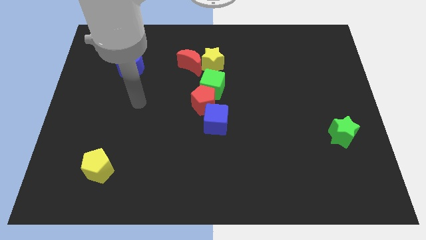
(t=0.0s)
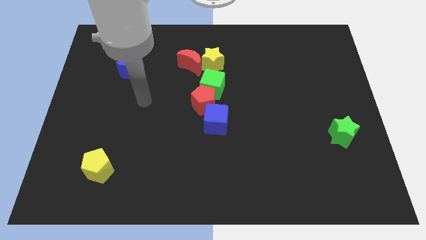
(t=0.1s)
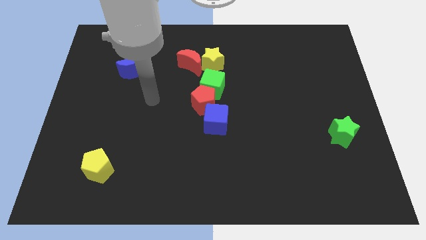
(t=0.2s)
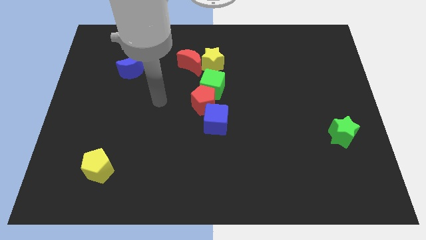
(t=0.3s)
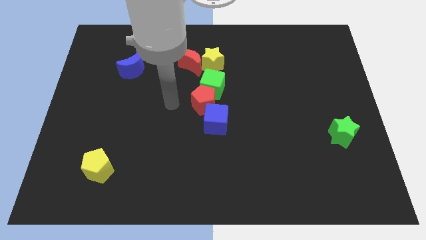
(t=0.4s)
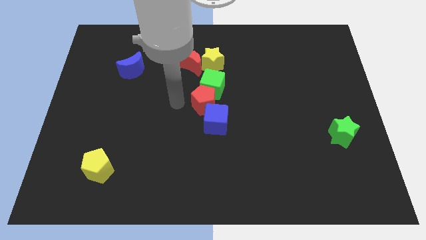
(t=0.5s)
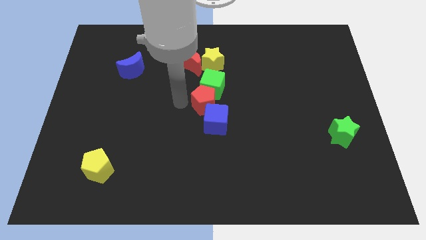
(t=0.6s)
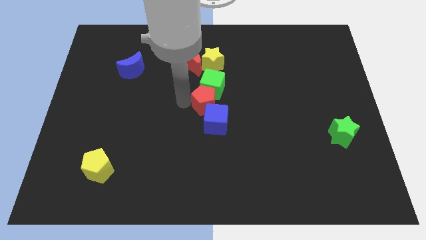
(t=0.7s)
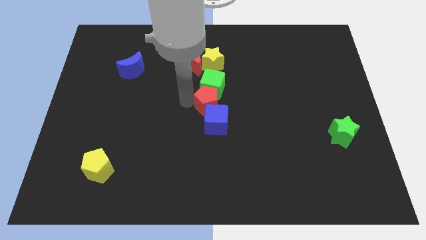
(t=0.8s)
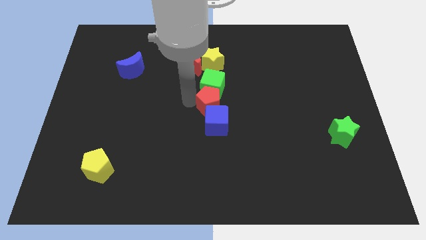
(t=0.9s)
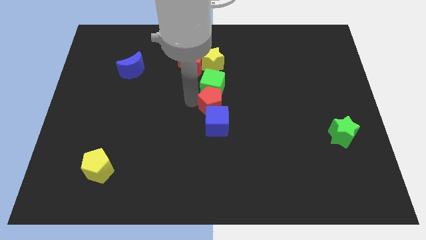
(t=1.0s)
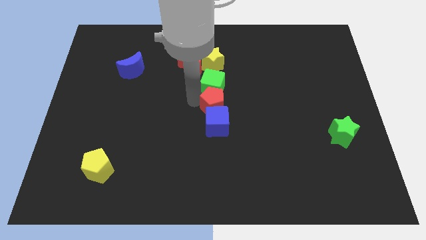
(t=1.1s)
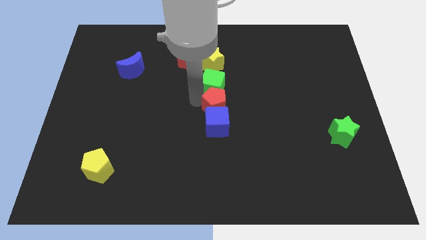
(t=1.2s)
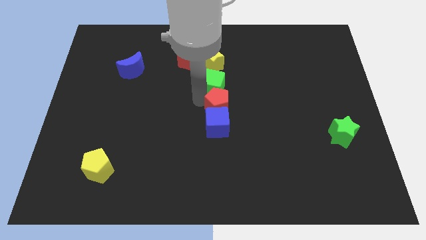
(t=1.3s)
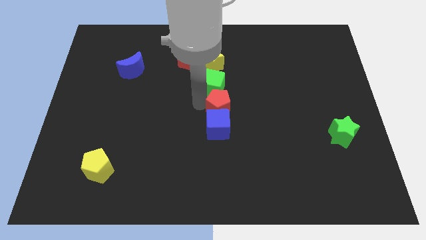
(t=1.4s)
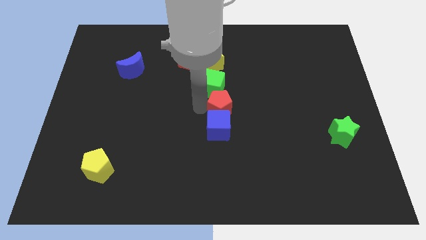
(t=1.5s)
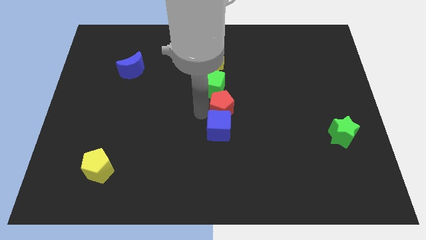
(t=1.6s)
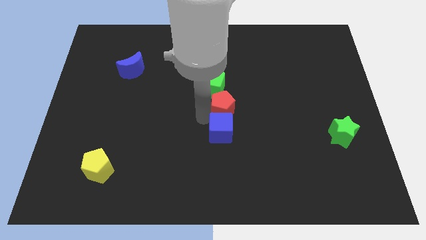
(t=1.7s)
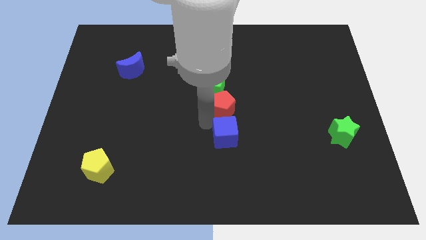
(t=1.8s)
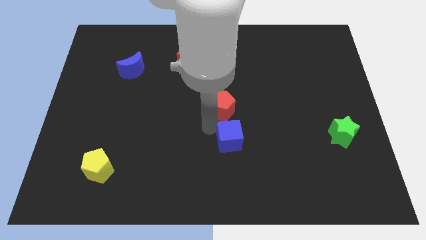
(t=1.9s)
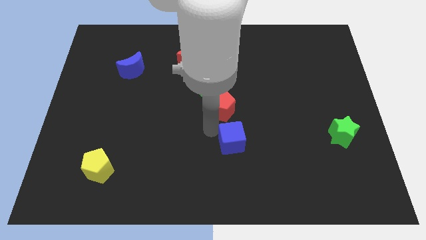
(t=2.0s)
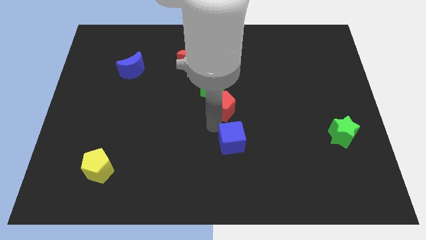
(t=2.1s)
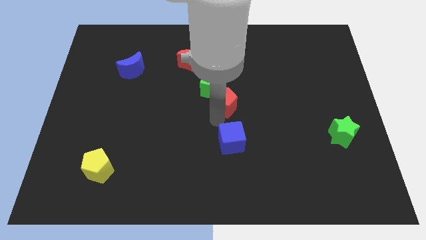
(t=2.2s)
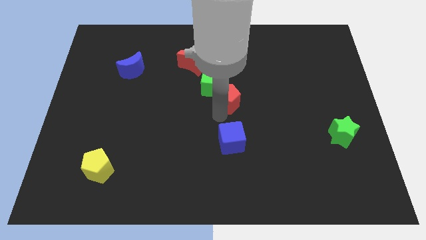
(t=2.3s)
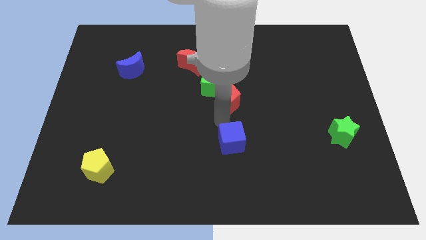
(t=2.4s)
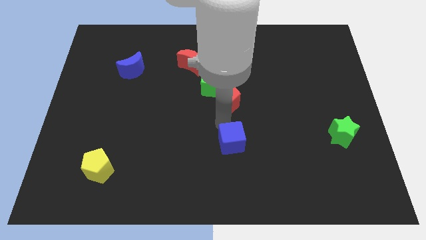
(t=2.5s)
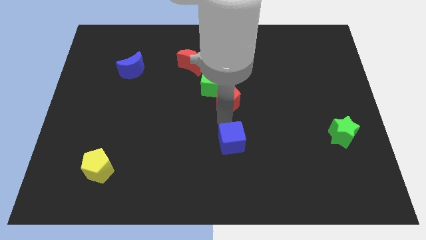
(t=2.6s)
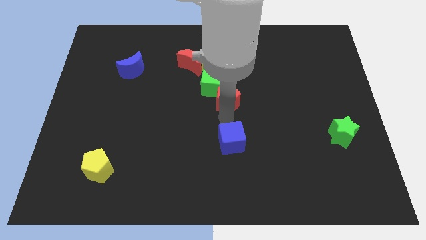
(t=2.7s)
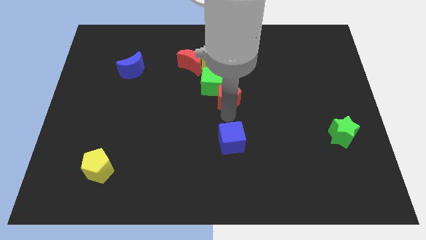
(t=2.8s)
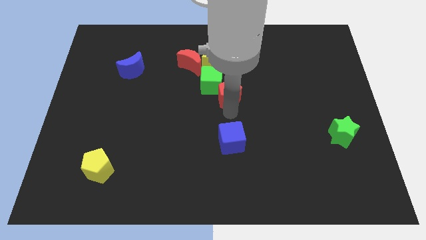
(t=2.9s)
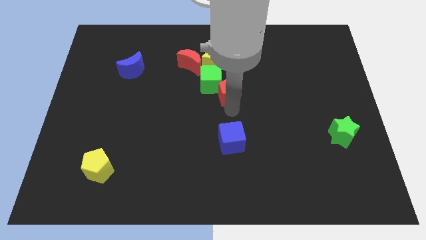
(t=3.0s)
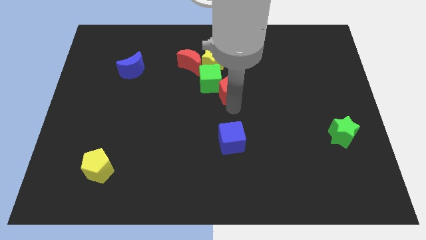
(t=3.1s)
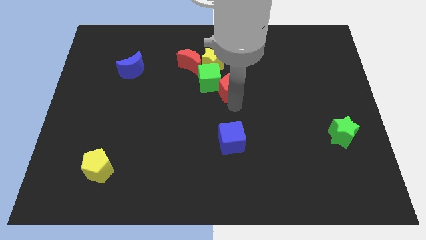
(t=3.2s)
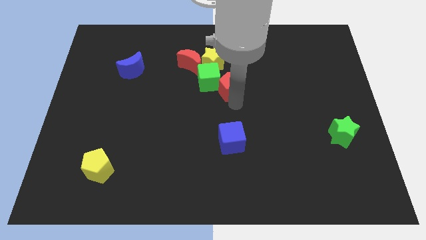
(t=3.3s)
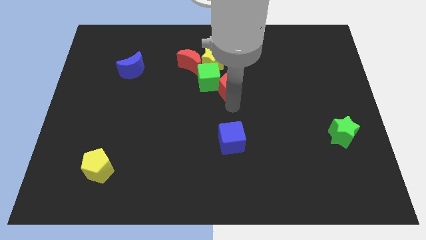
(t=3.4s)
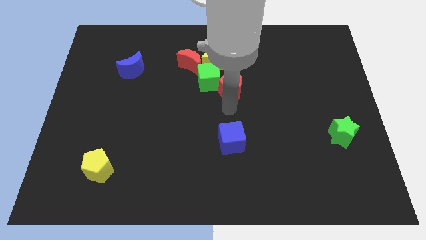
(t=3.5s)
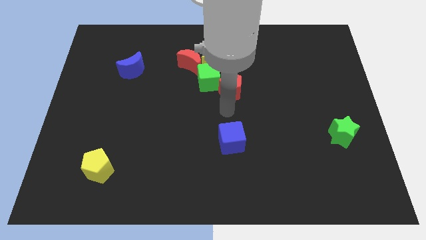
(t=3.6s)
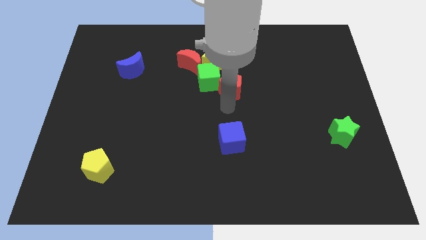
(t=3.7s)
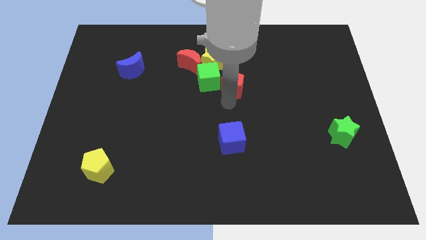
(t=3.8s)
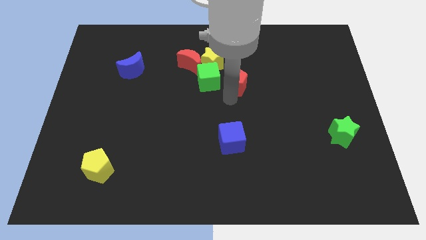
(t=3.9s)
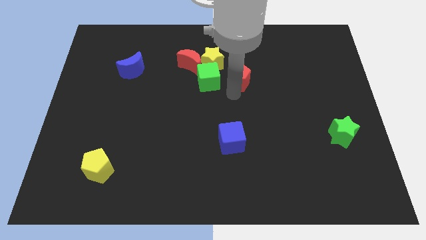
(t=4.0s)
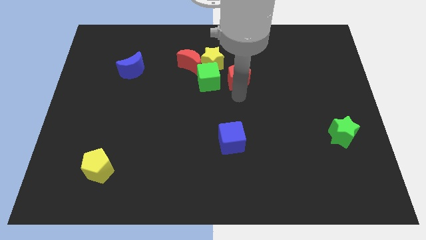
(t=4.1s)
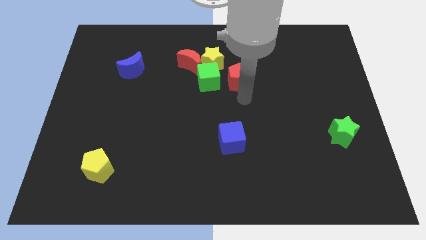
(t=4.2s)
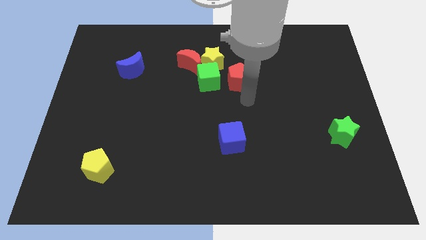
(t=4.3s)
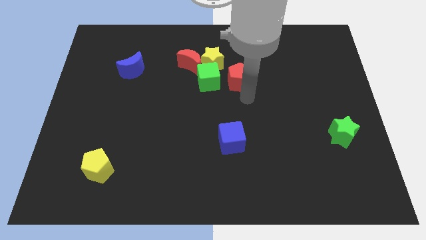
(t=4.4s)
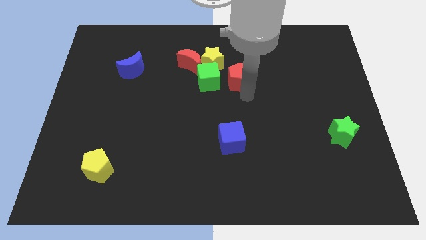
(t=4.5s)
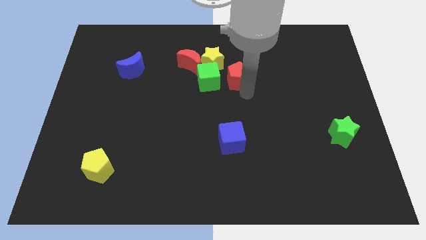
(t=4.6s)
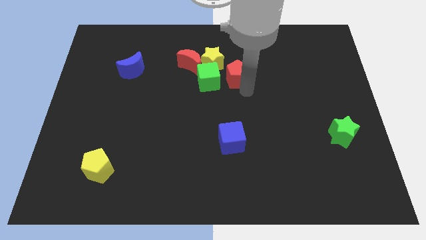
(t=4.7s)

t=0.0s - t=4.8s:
slide the red pentagon right of the red moon

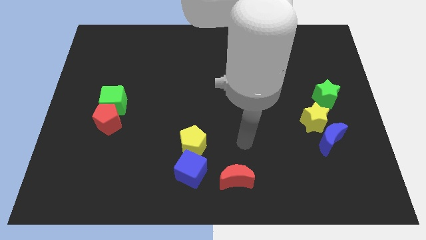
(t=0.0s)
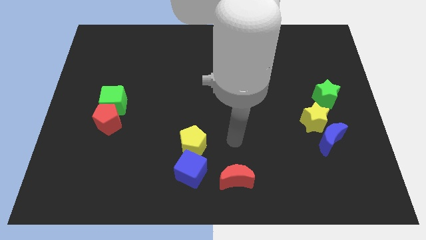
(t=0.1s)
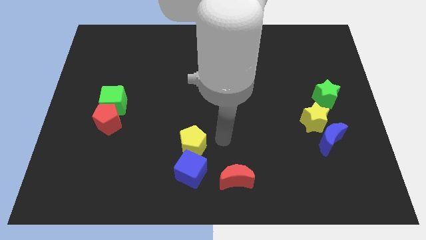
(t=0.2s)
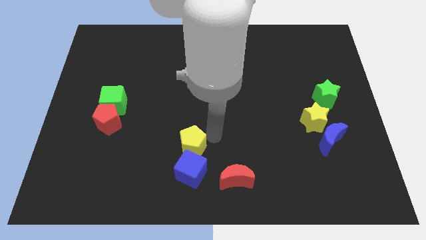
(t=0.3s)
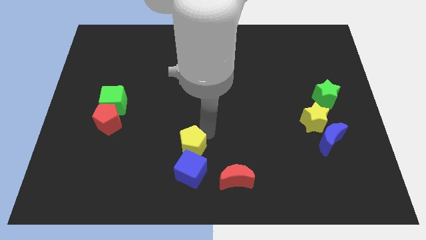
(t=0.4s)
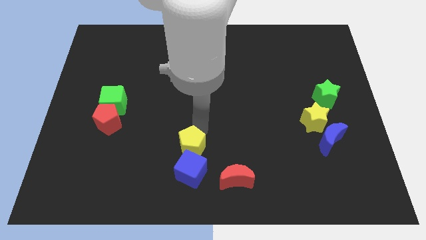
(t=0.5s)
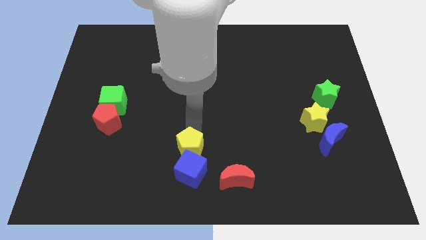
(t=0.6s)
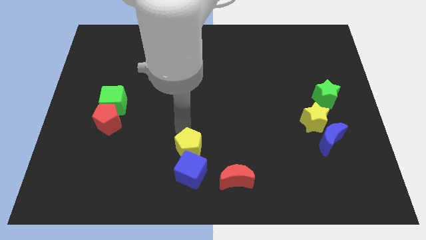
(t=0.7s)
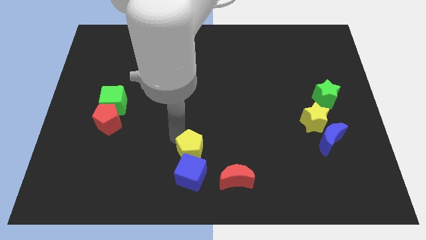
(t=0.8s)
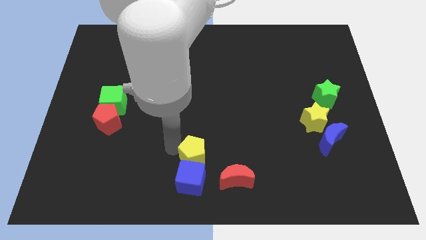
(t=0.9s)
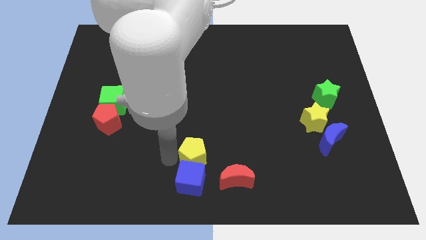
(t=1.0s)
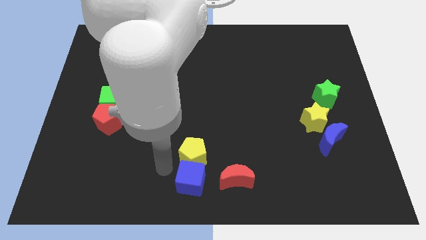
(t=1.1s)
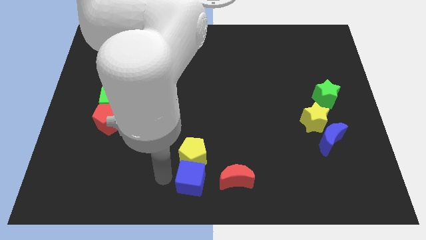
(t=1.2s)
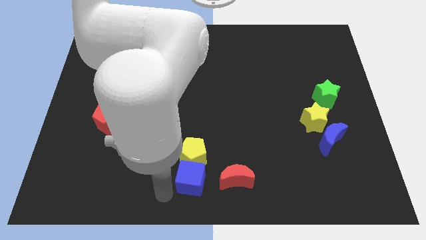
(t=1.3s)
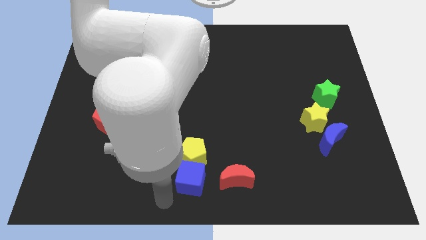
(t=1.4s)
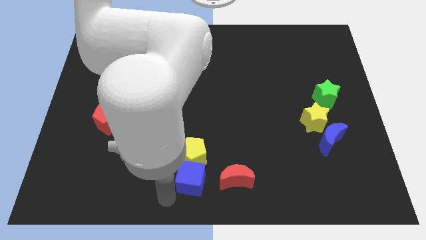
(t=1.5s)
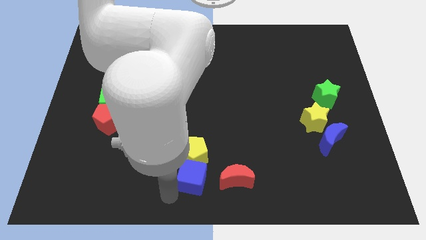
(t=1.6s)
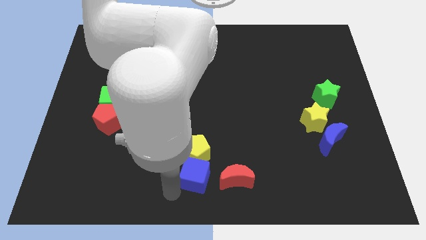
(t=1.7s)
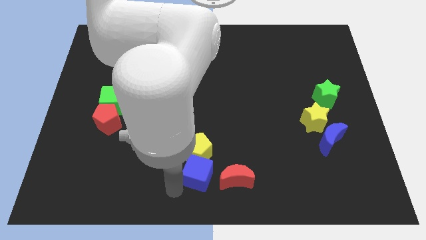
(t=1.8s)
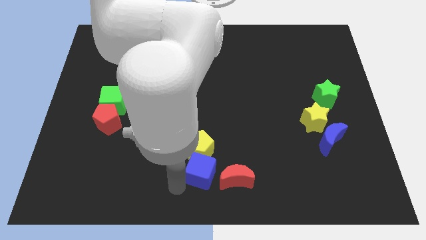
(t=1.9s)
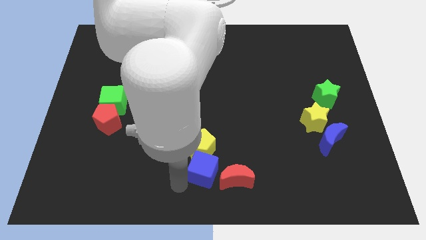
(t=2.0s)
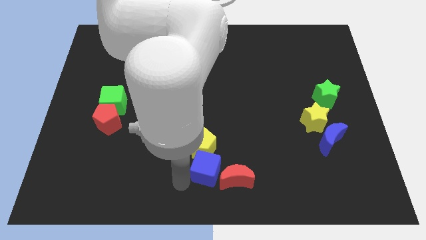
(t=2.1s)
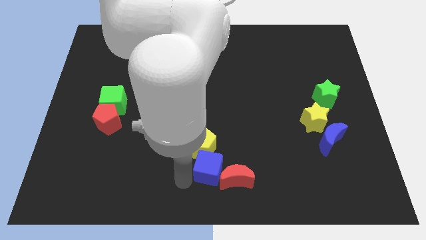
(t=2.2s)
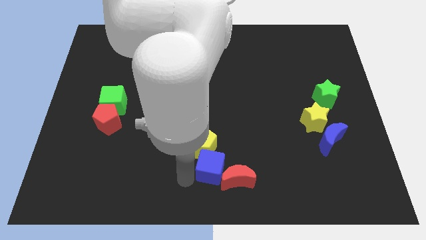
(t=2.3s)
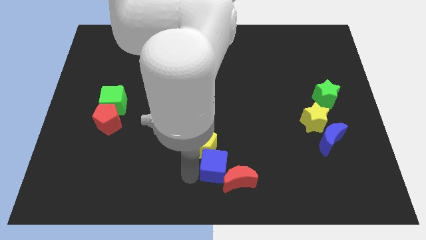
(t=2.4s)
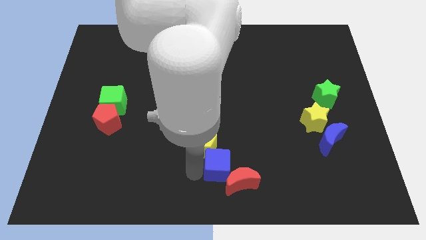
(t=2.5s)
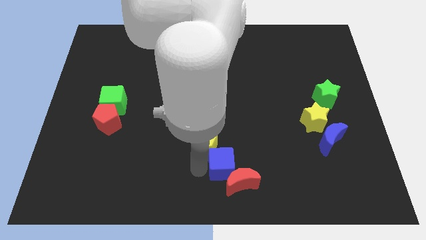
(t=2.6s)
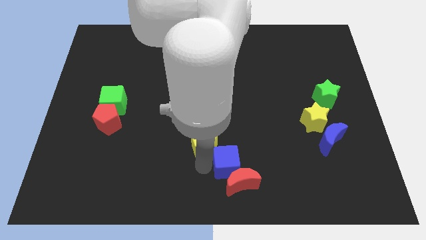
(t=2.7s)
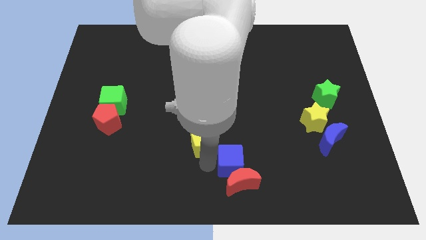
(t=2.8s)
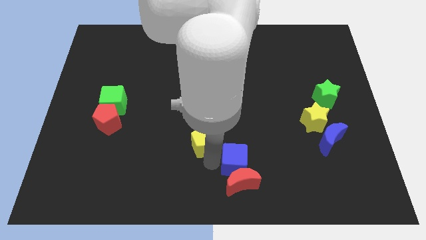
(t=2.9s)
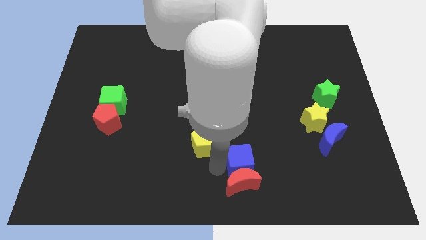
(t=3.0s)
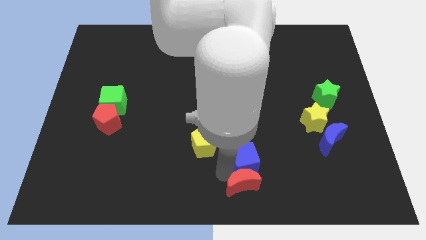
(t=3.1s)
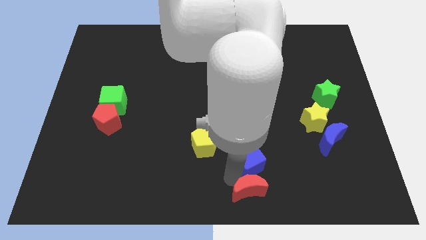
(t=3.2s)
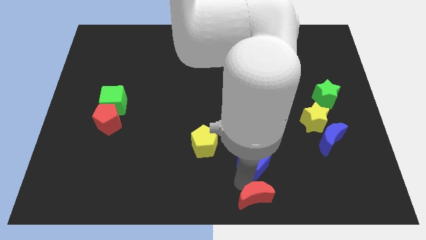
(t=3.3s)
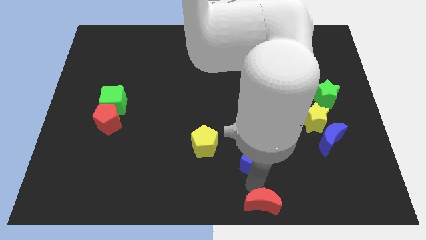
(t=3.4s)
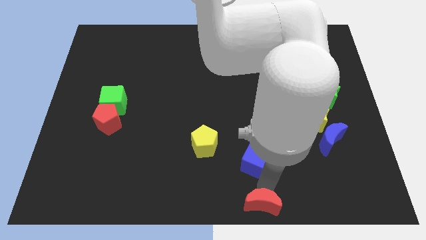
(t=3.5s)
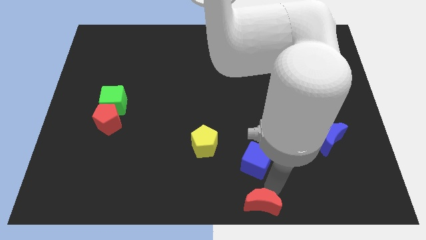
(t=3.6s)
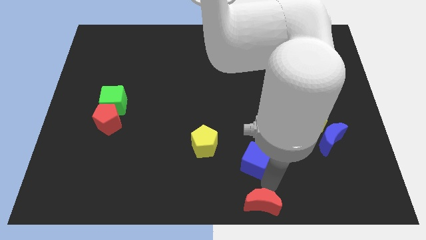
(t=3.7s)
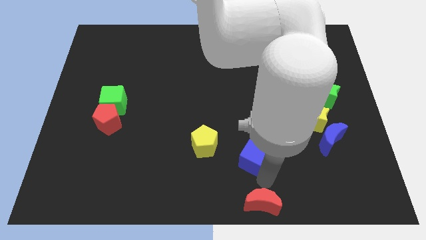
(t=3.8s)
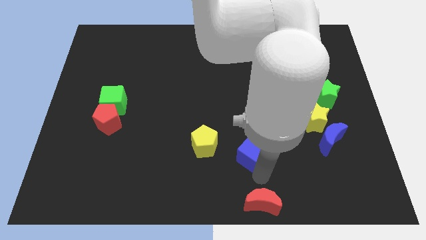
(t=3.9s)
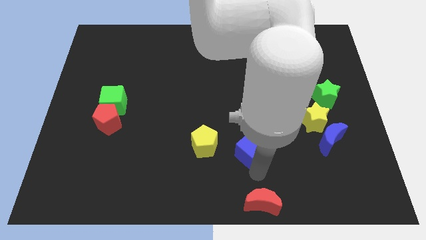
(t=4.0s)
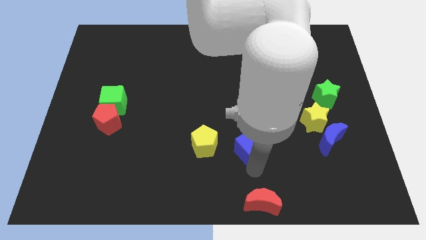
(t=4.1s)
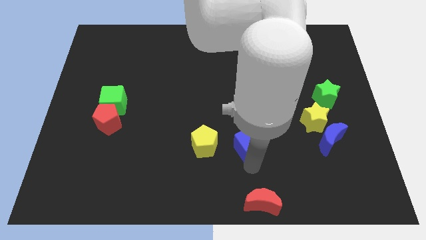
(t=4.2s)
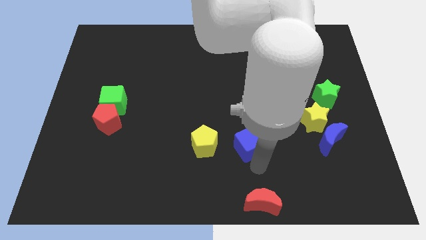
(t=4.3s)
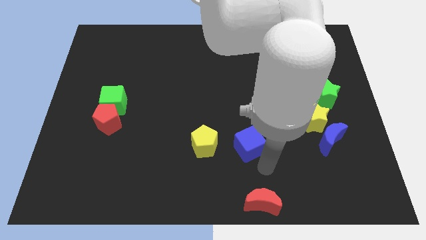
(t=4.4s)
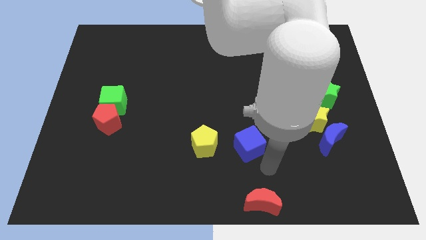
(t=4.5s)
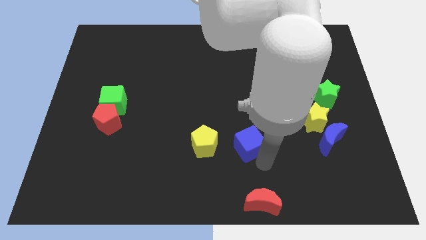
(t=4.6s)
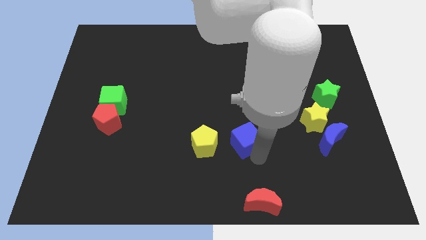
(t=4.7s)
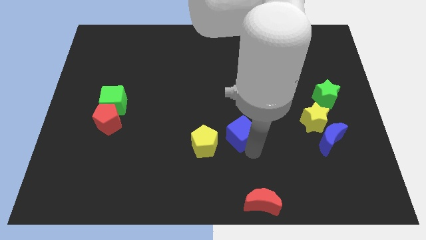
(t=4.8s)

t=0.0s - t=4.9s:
move the blue cube to the top right of the yellow pentagon
